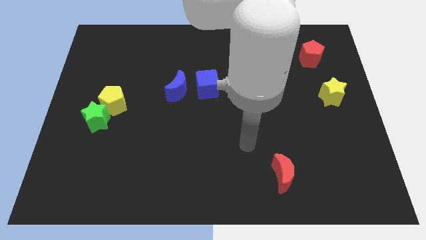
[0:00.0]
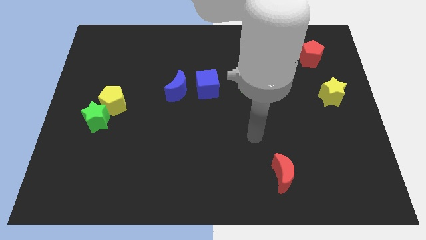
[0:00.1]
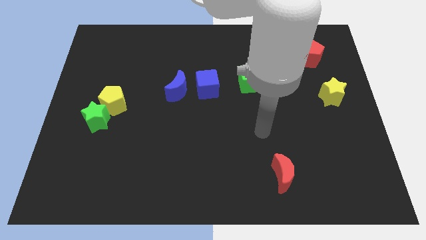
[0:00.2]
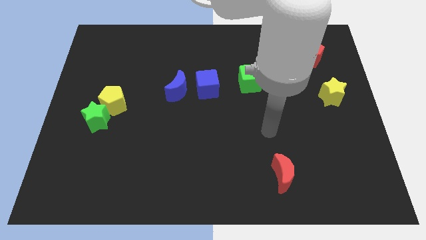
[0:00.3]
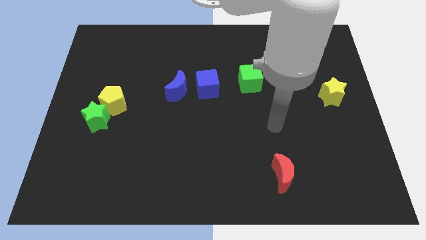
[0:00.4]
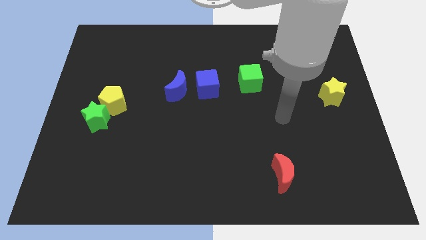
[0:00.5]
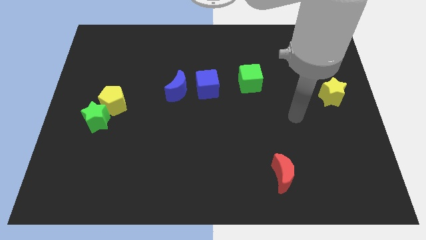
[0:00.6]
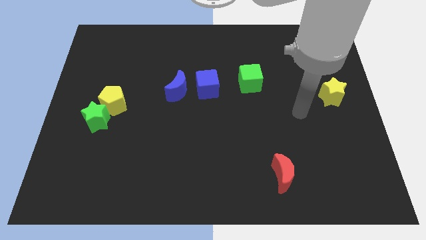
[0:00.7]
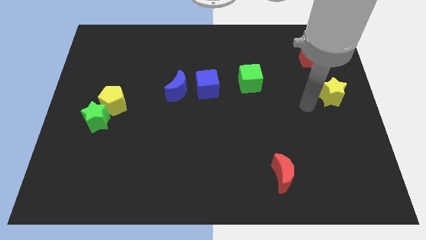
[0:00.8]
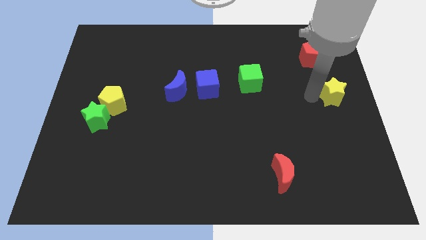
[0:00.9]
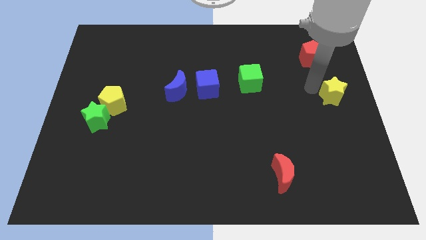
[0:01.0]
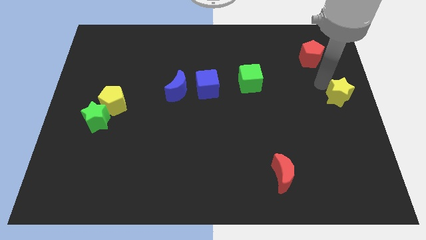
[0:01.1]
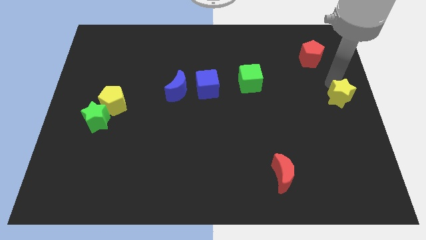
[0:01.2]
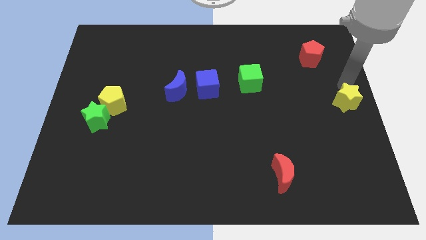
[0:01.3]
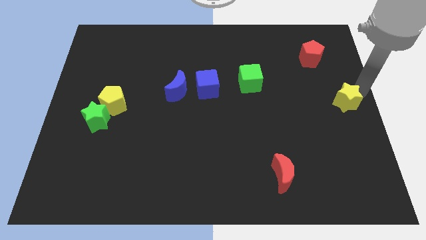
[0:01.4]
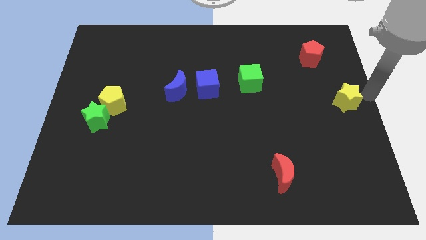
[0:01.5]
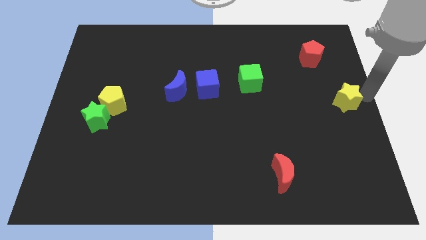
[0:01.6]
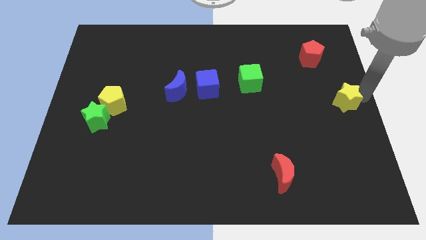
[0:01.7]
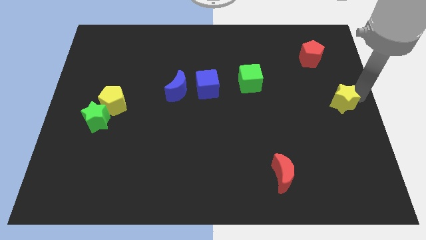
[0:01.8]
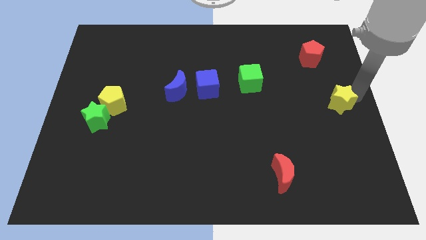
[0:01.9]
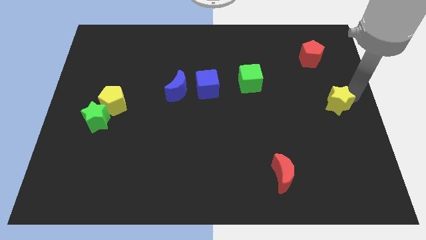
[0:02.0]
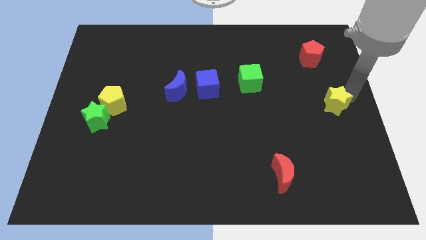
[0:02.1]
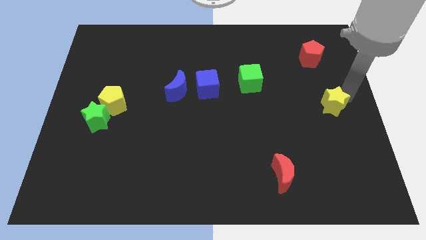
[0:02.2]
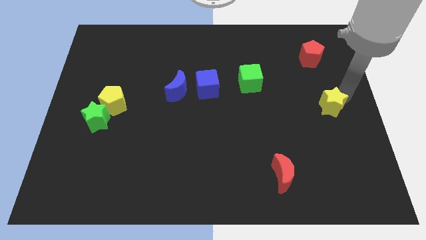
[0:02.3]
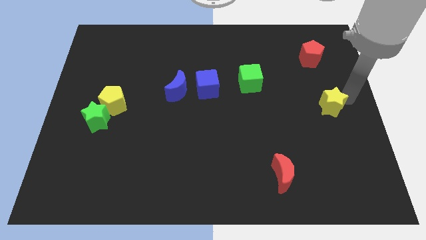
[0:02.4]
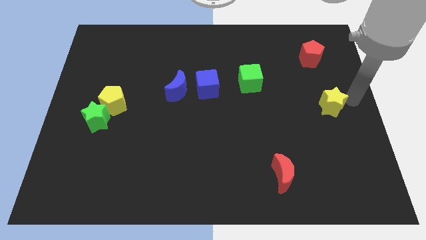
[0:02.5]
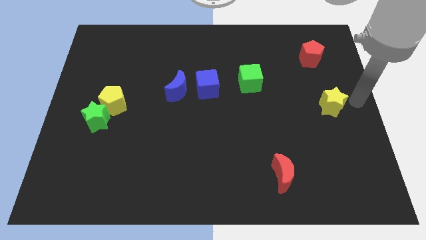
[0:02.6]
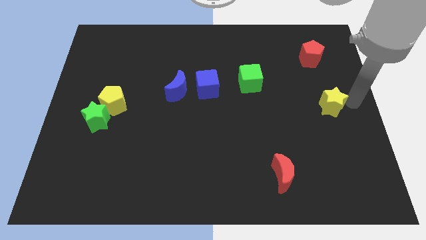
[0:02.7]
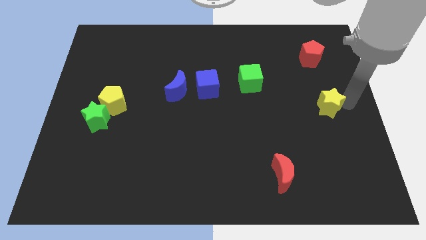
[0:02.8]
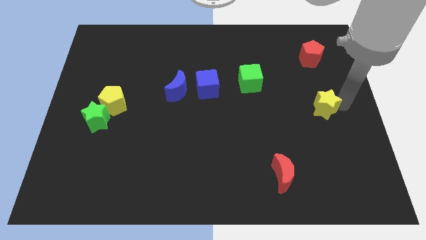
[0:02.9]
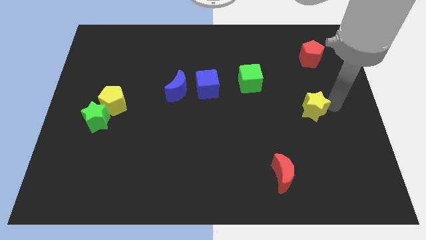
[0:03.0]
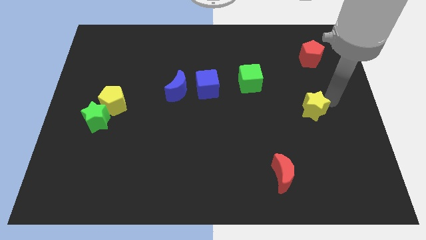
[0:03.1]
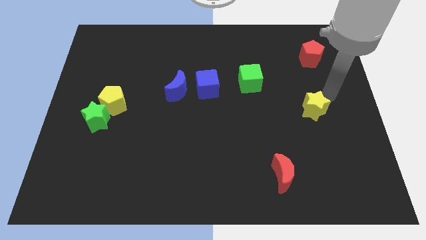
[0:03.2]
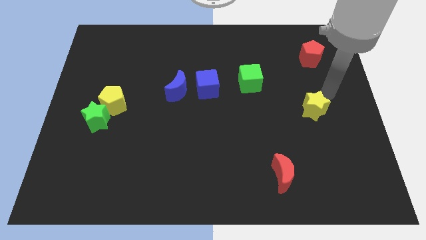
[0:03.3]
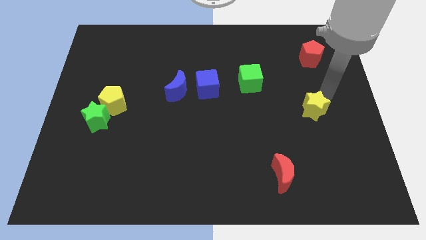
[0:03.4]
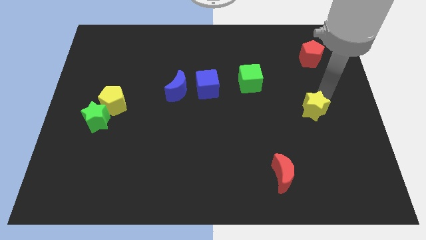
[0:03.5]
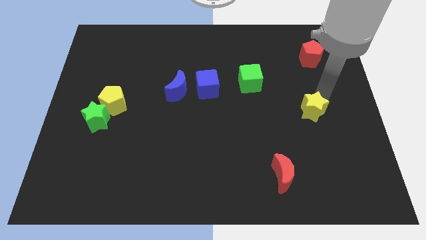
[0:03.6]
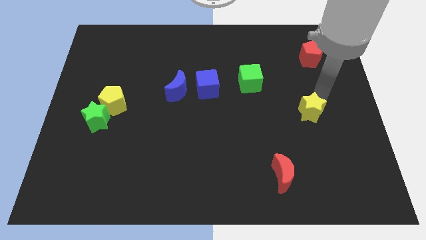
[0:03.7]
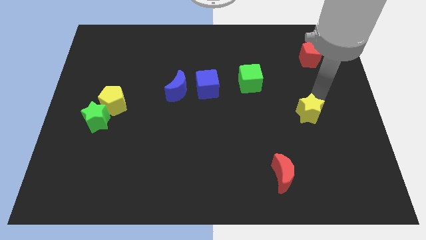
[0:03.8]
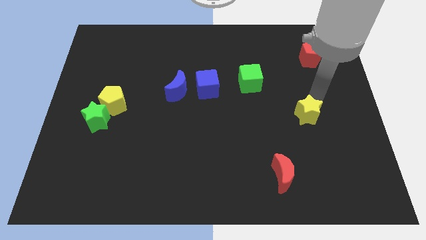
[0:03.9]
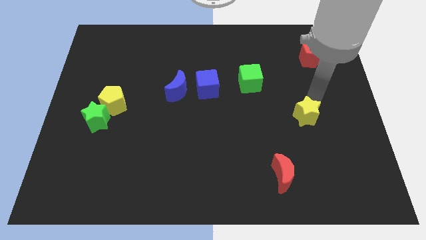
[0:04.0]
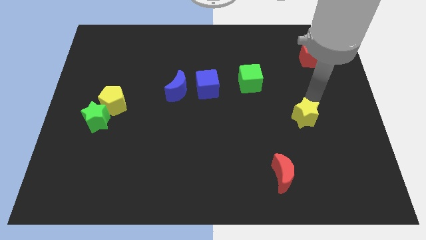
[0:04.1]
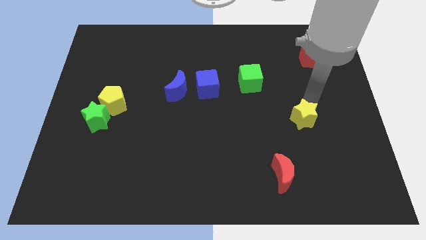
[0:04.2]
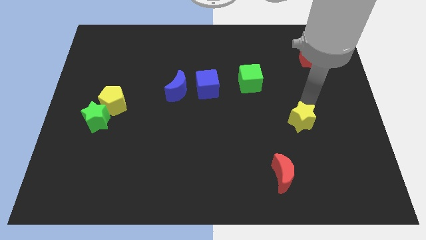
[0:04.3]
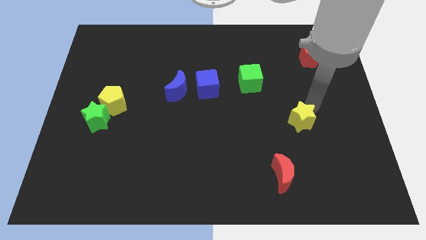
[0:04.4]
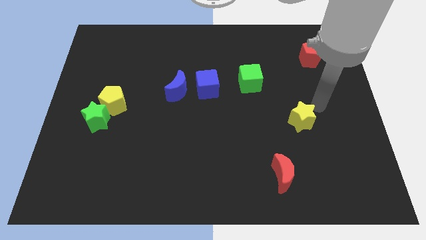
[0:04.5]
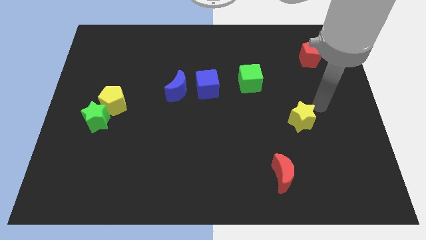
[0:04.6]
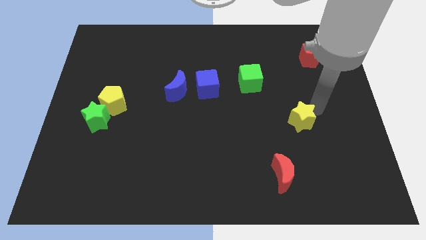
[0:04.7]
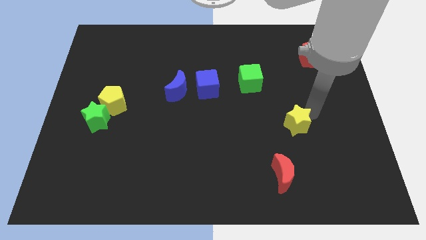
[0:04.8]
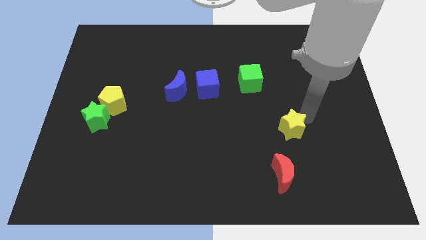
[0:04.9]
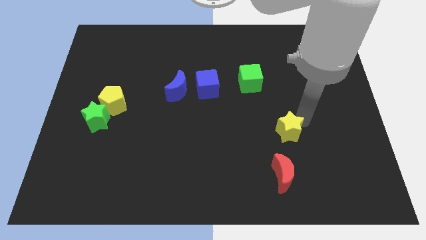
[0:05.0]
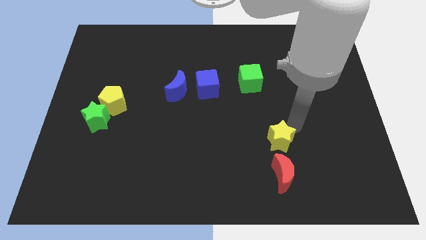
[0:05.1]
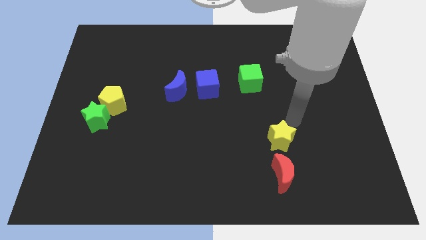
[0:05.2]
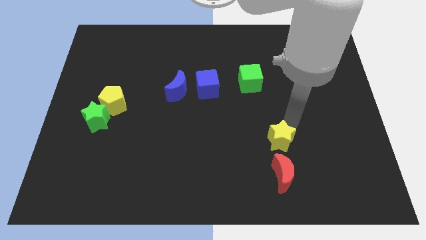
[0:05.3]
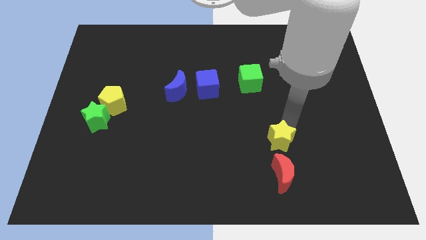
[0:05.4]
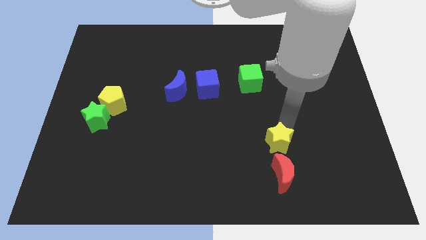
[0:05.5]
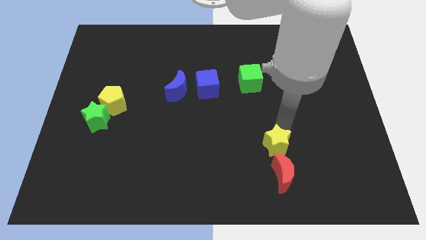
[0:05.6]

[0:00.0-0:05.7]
move the yellow star downwards and to the left diagonally

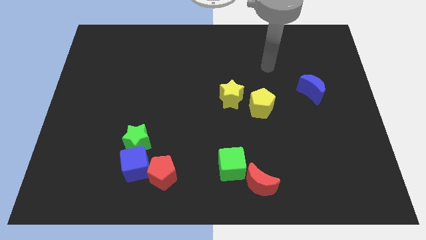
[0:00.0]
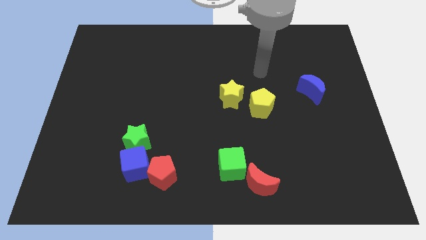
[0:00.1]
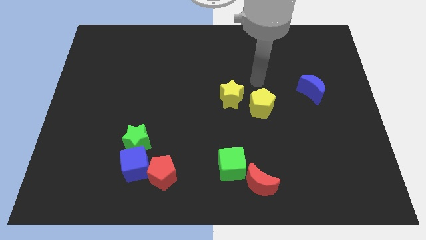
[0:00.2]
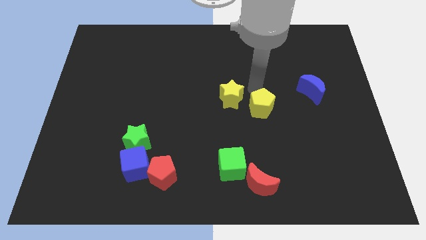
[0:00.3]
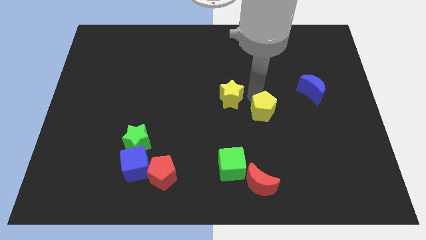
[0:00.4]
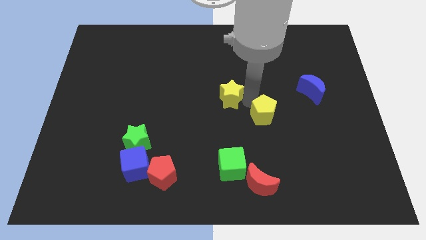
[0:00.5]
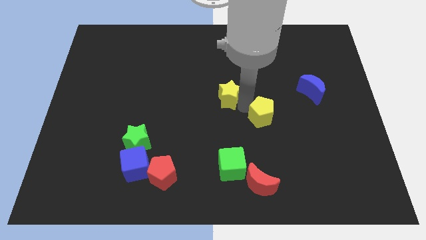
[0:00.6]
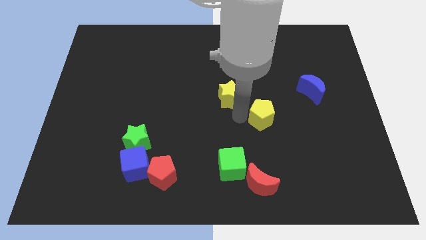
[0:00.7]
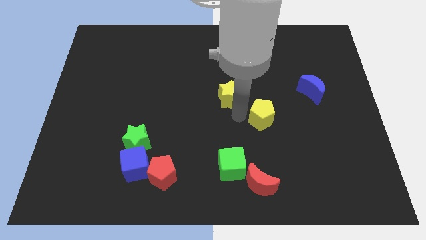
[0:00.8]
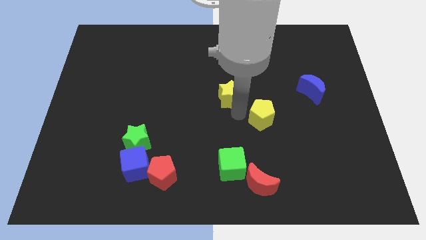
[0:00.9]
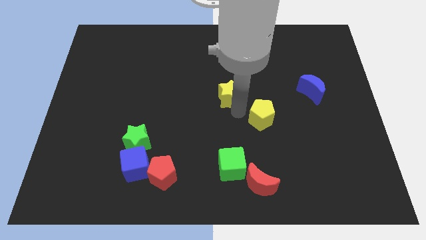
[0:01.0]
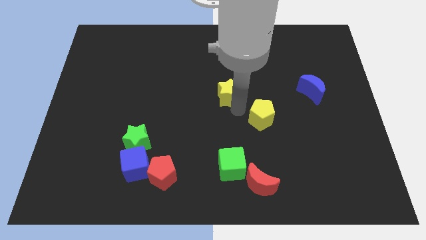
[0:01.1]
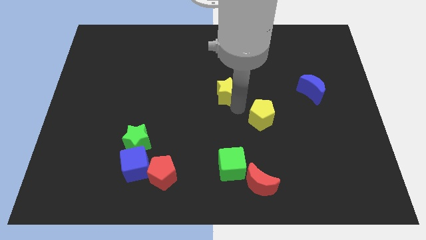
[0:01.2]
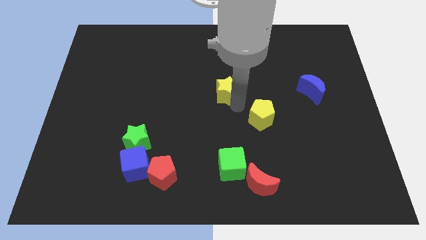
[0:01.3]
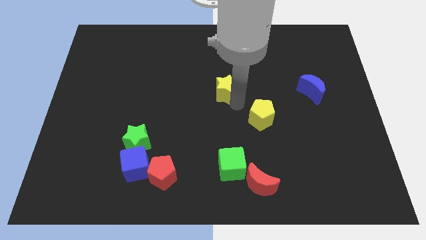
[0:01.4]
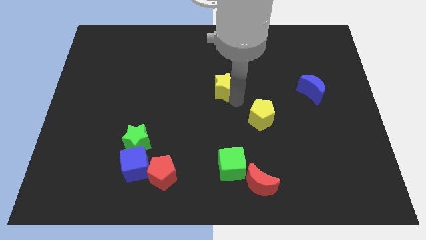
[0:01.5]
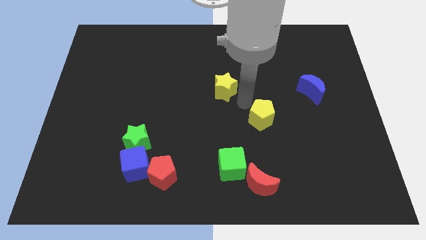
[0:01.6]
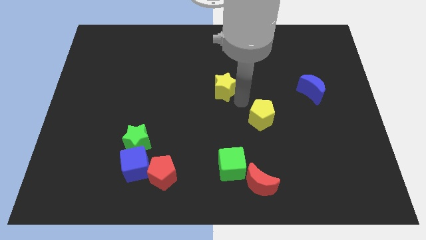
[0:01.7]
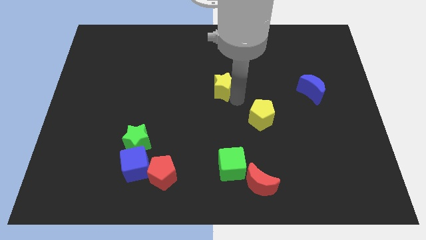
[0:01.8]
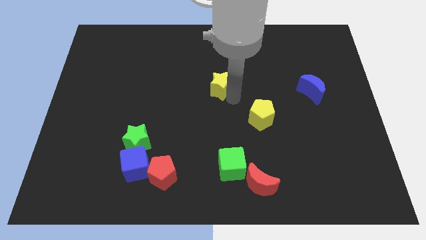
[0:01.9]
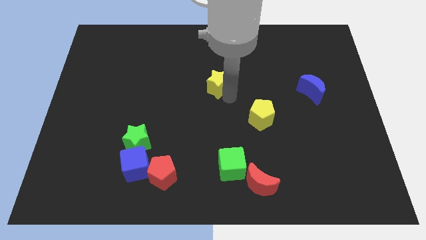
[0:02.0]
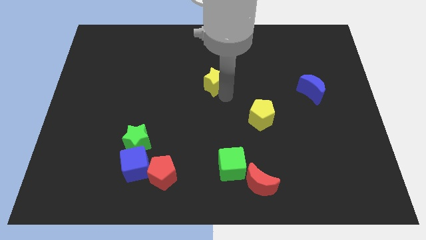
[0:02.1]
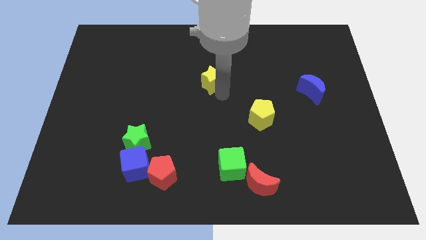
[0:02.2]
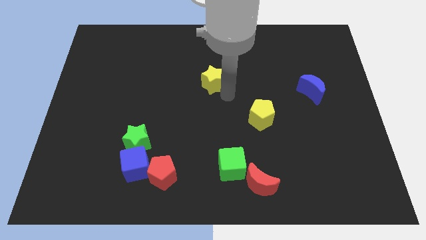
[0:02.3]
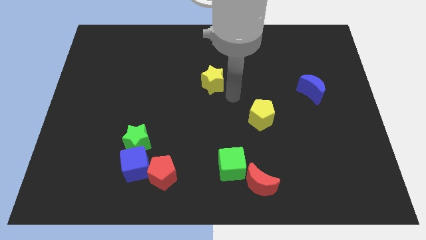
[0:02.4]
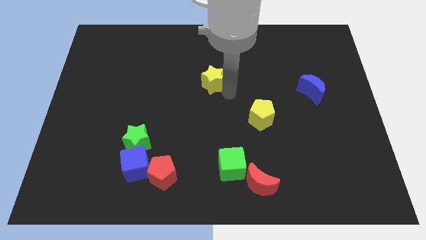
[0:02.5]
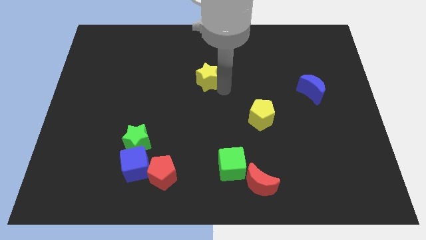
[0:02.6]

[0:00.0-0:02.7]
move the yellow star slightly upwards and left diagonally
